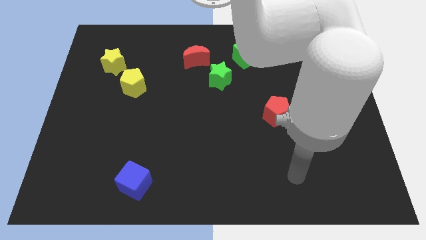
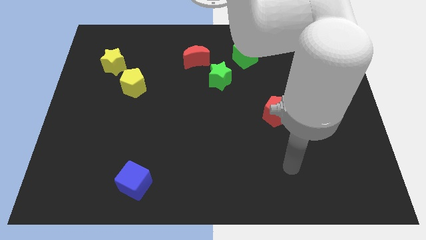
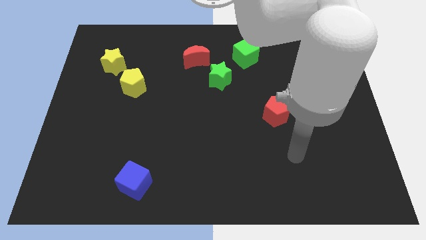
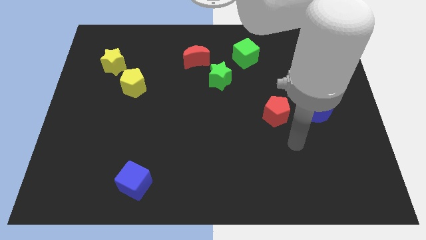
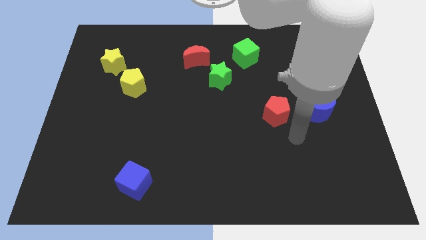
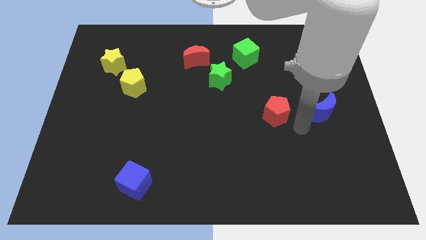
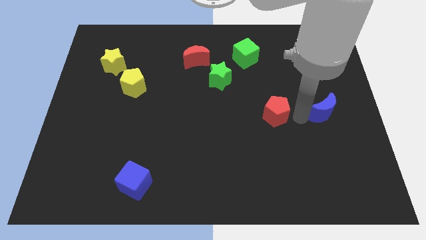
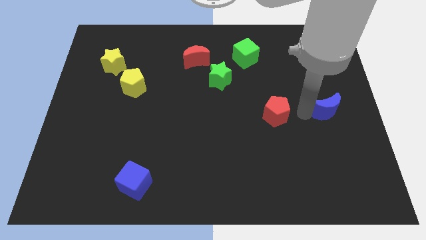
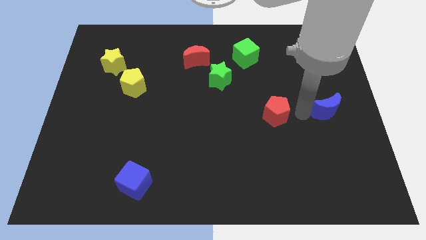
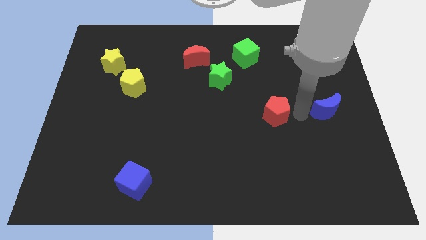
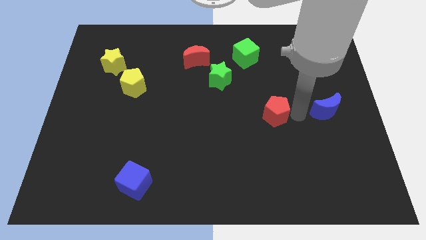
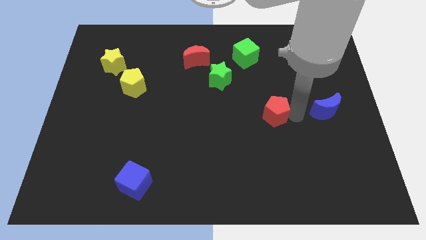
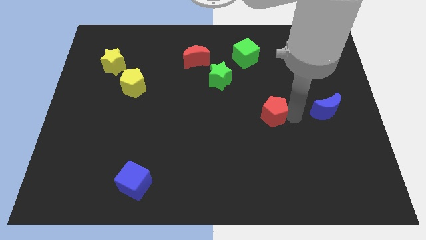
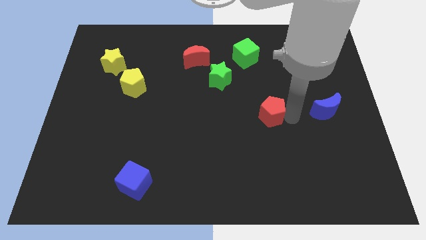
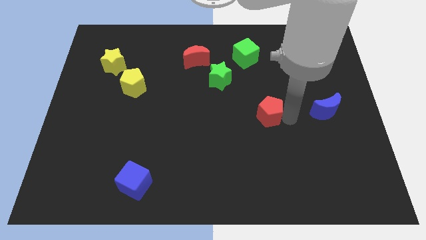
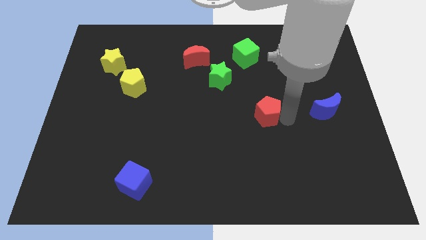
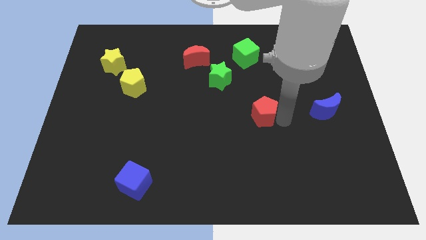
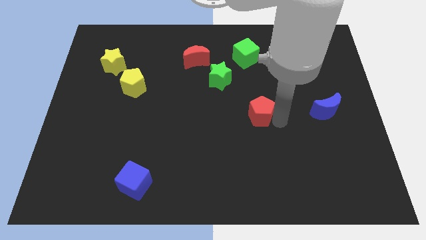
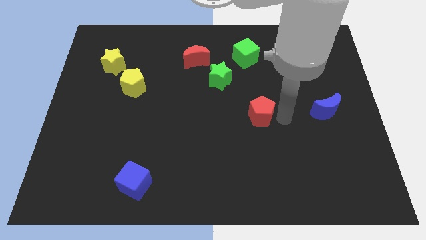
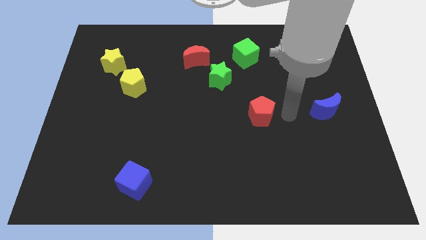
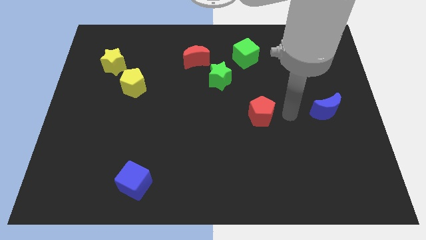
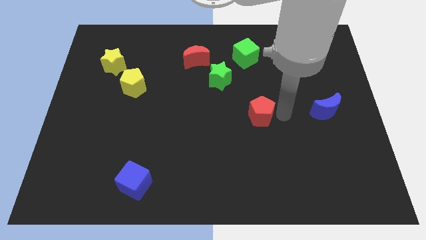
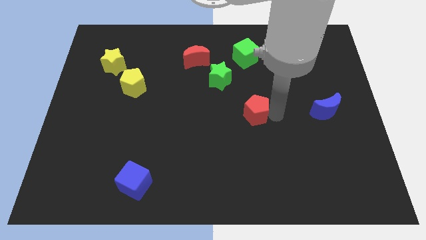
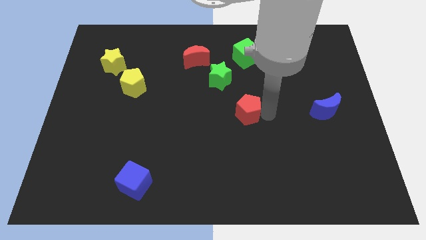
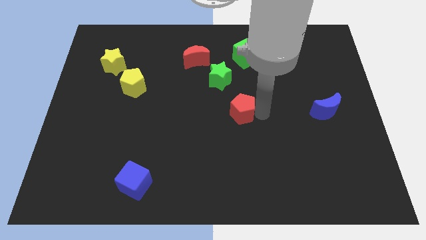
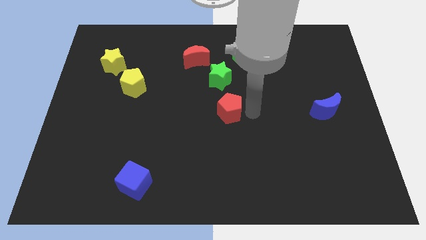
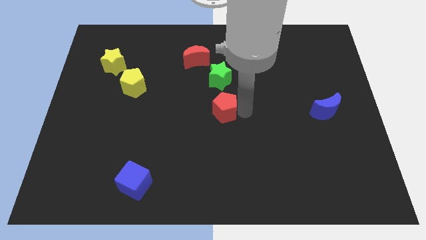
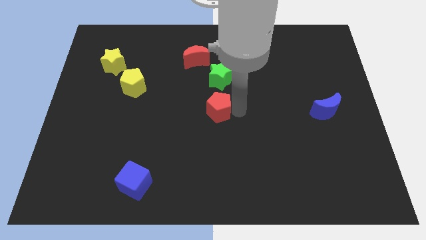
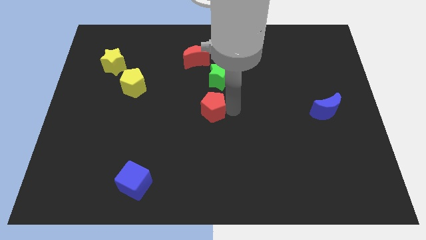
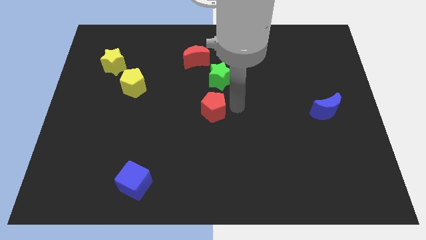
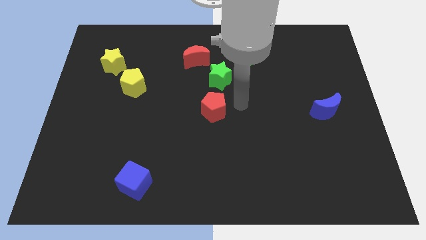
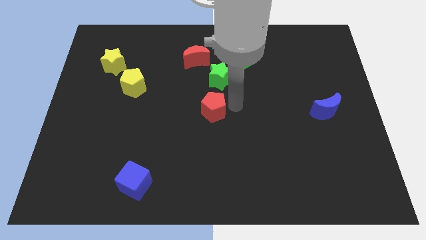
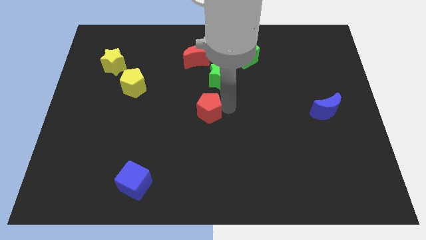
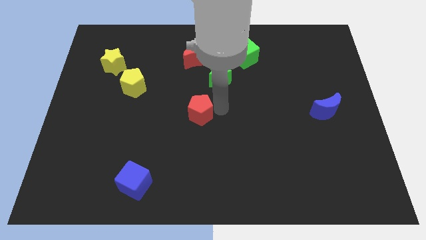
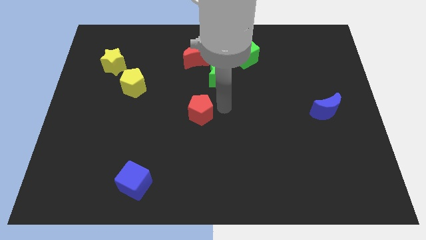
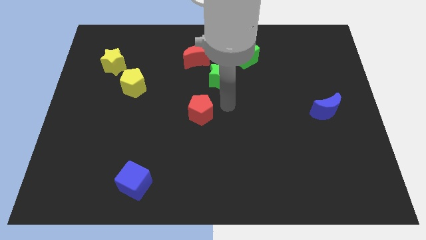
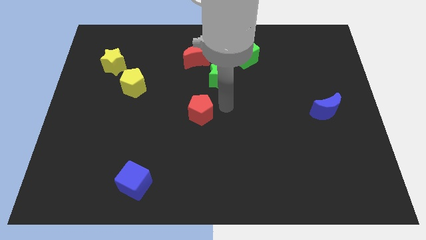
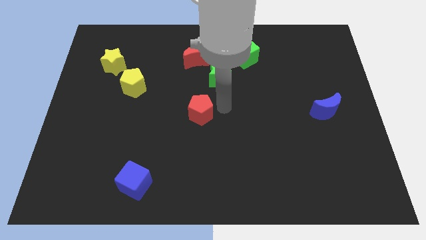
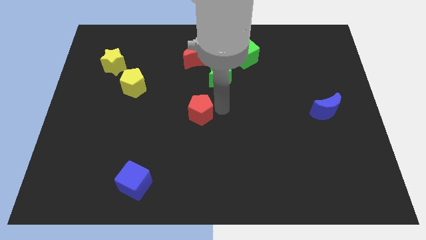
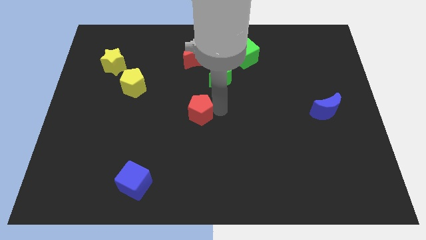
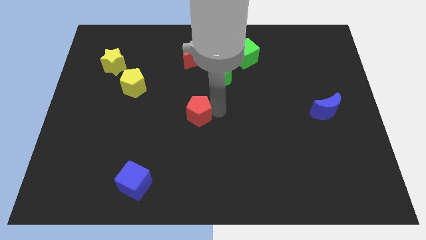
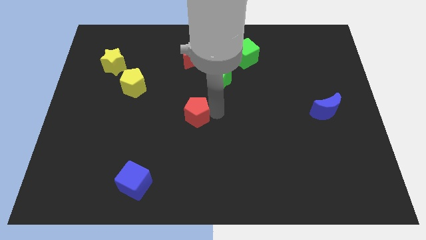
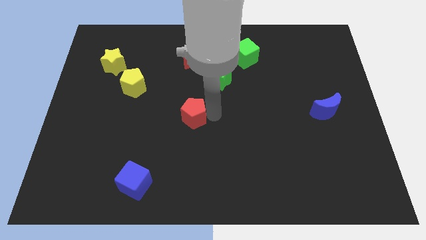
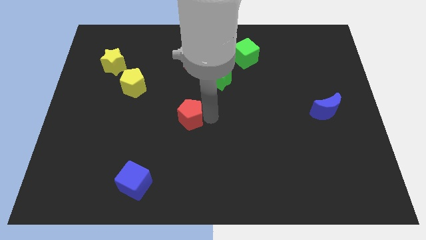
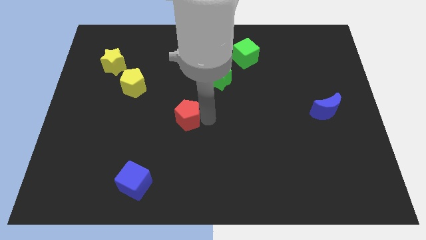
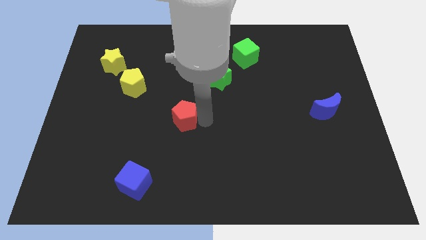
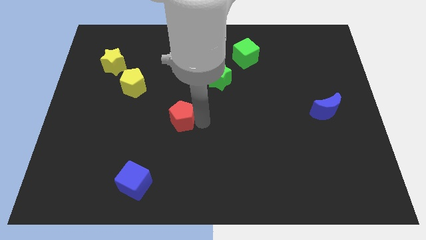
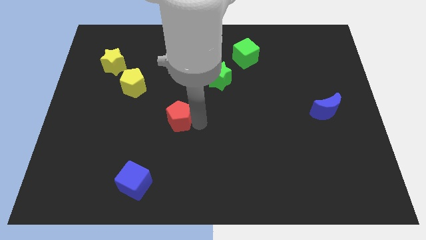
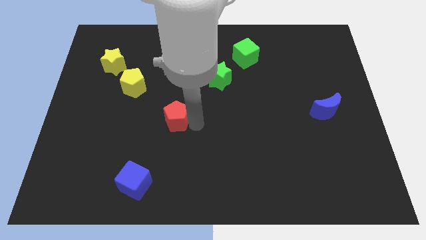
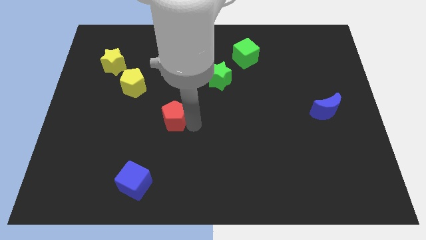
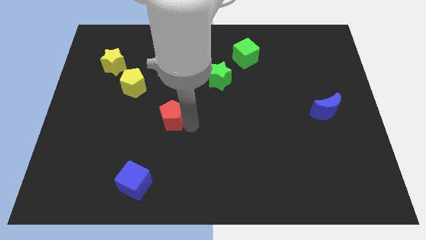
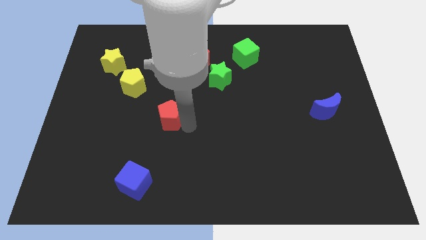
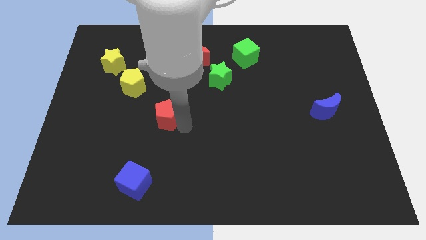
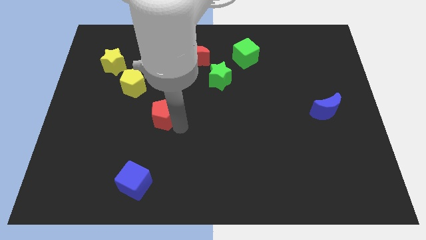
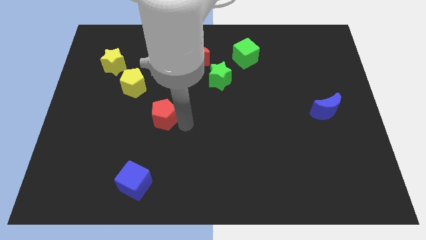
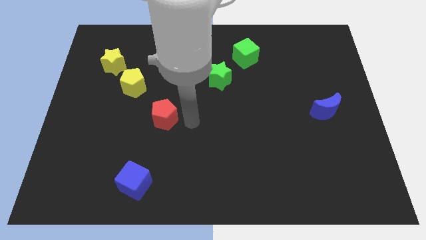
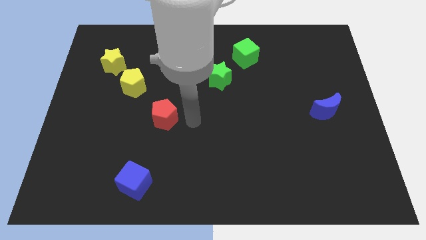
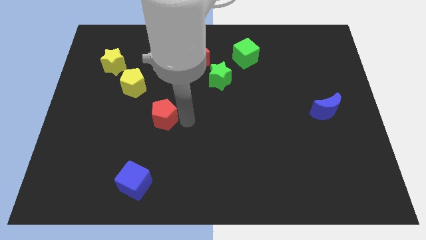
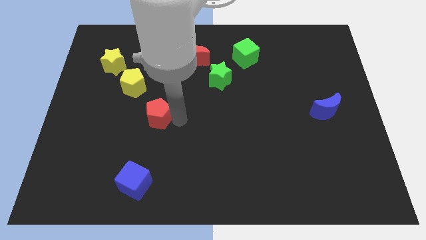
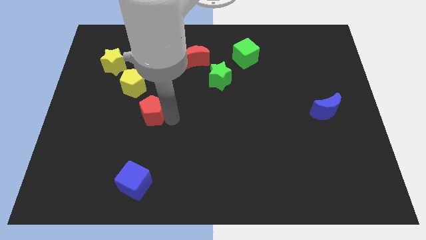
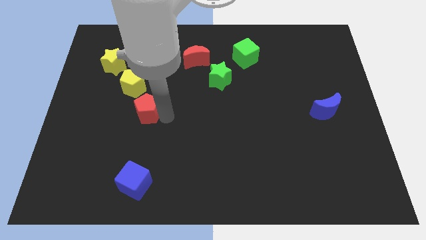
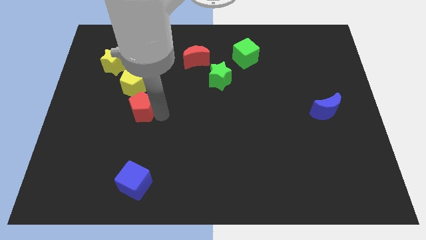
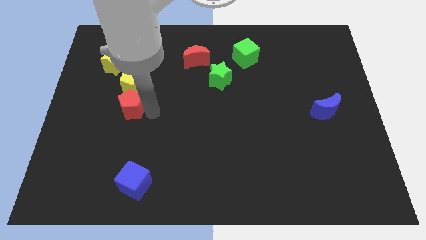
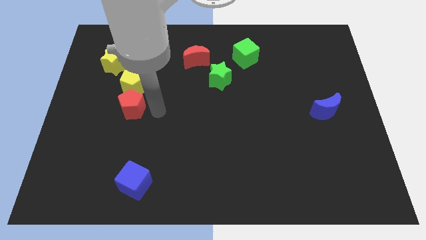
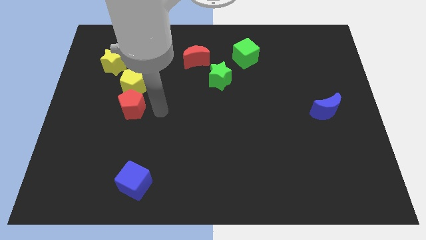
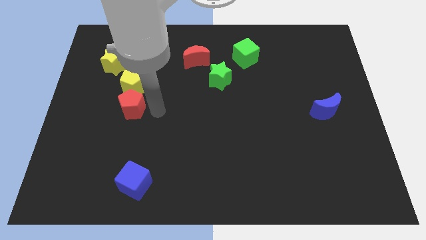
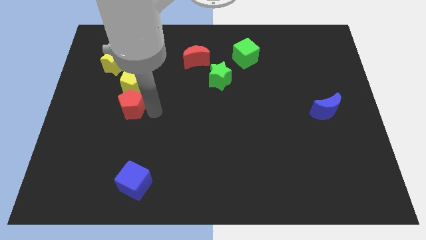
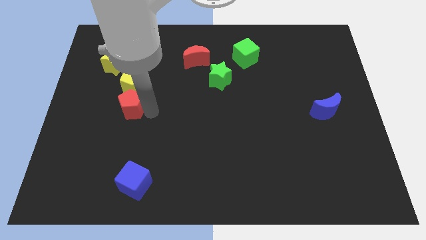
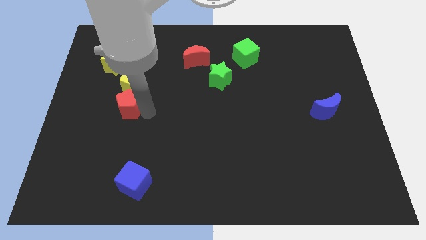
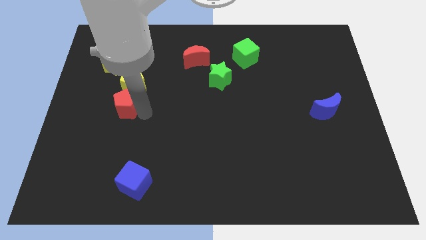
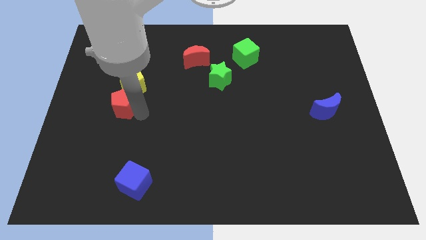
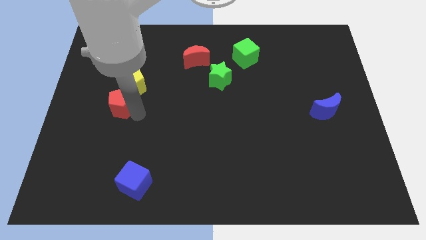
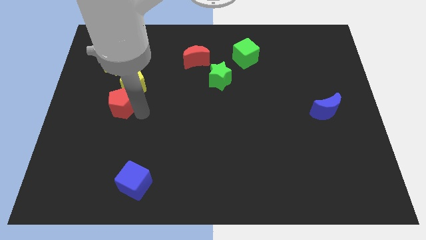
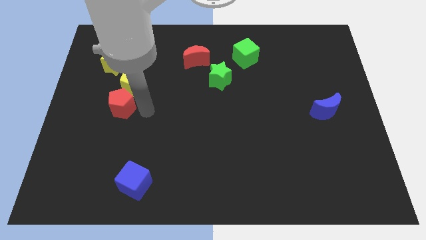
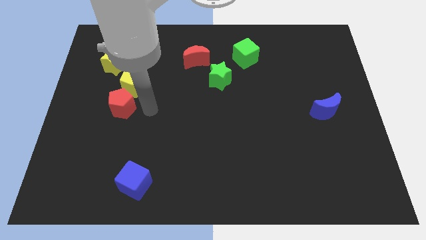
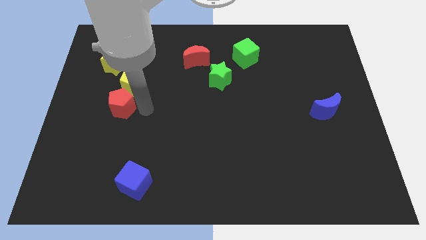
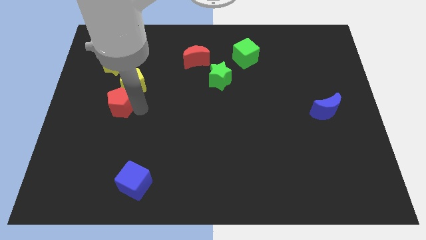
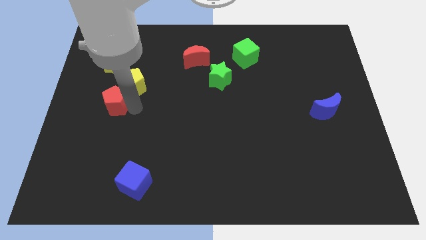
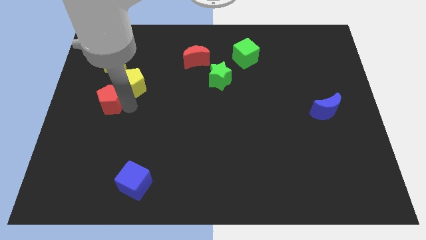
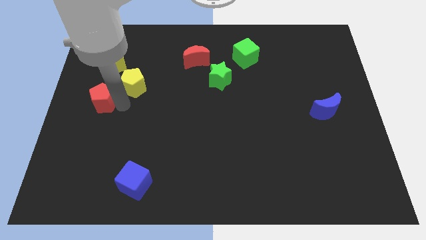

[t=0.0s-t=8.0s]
slide the red pentagon to the left side
